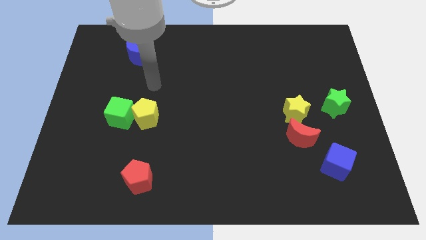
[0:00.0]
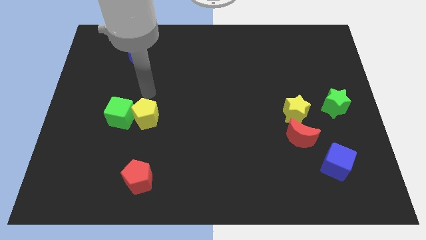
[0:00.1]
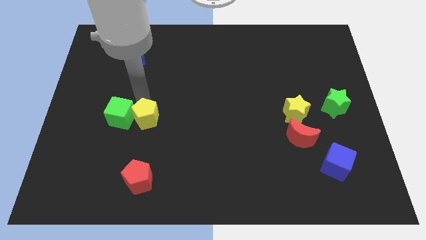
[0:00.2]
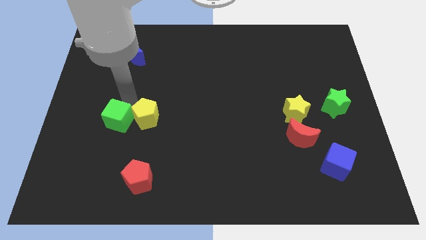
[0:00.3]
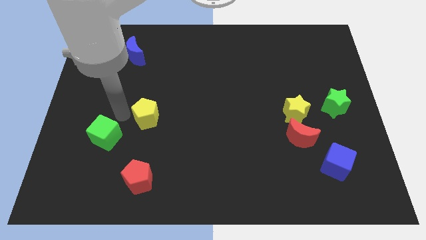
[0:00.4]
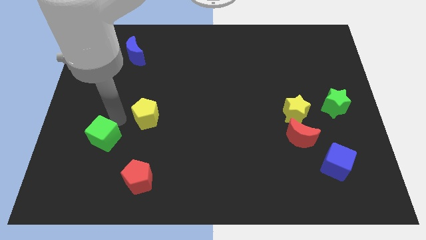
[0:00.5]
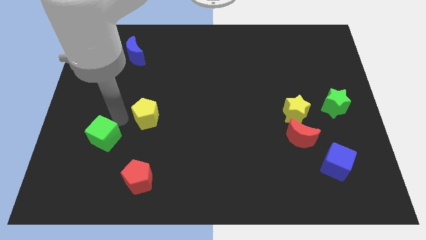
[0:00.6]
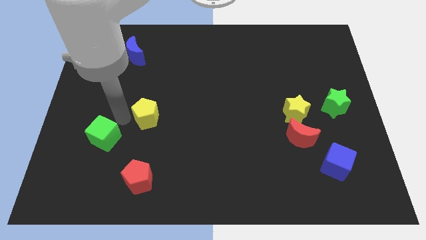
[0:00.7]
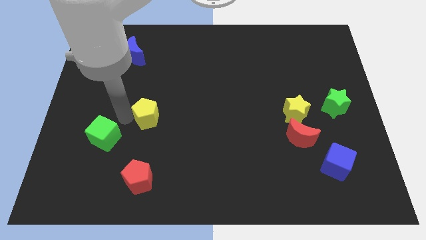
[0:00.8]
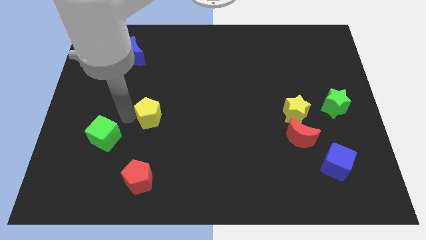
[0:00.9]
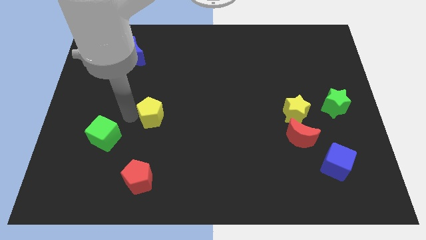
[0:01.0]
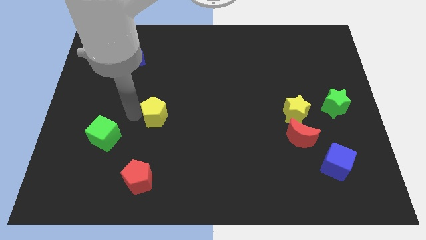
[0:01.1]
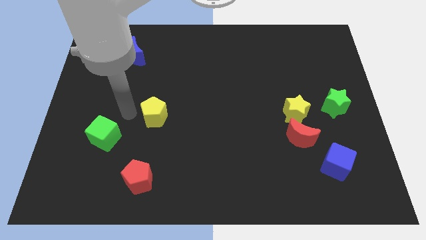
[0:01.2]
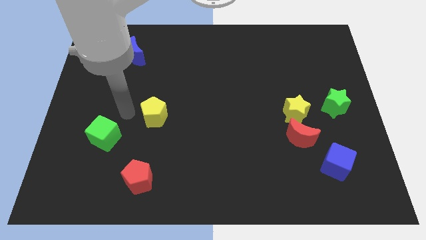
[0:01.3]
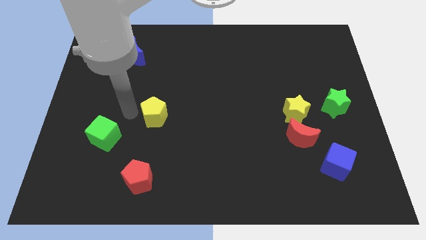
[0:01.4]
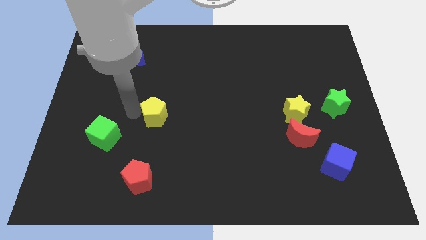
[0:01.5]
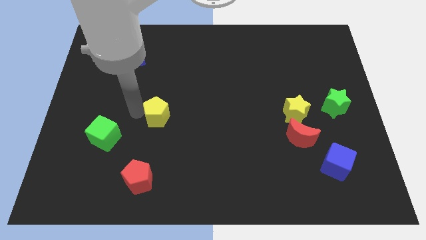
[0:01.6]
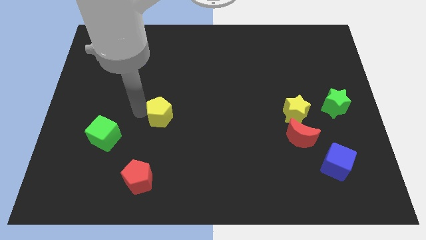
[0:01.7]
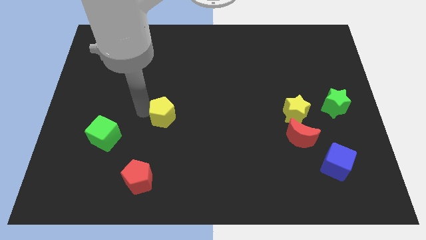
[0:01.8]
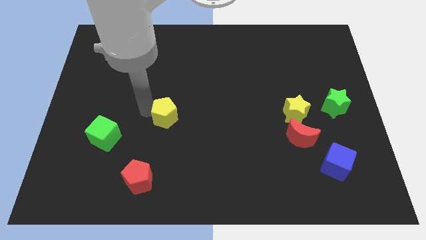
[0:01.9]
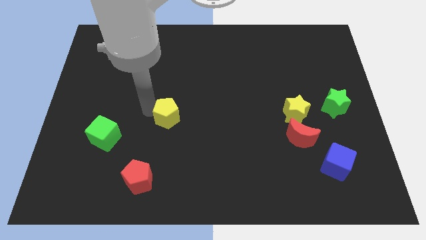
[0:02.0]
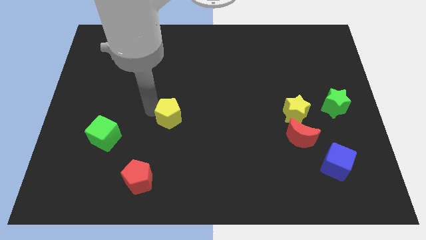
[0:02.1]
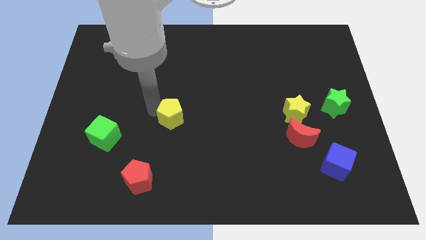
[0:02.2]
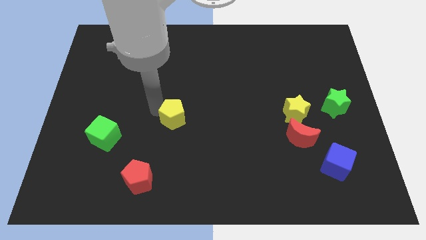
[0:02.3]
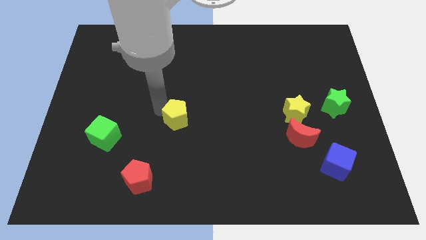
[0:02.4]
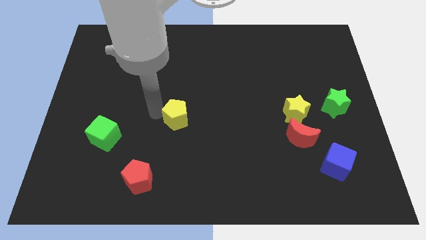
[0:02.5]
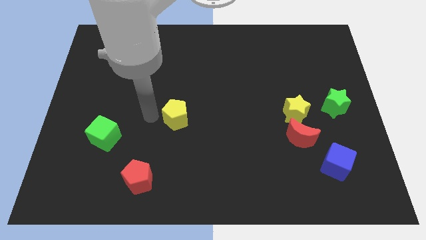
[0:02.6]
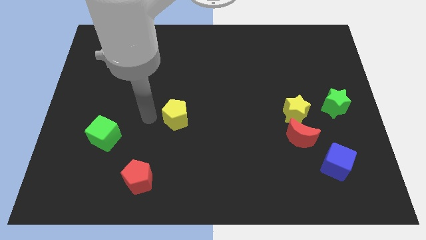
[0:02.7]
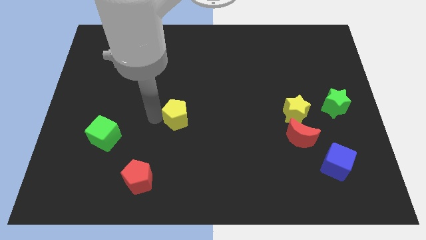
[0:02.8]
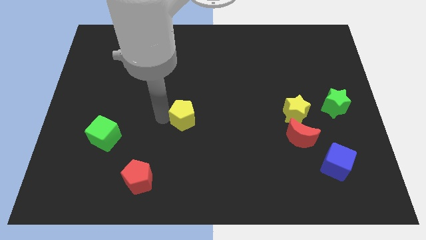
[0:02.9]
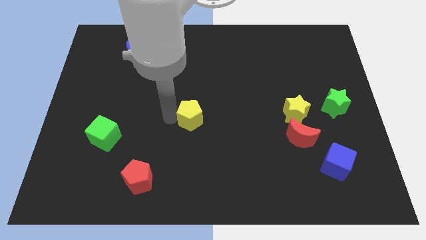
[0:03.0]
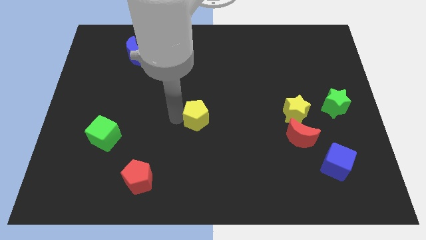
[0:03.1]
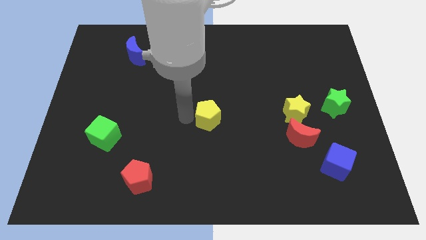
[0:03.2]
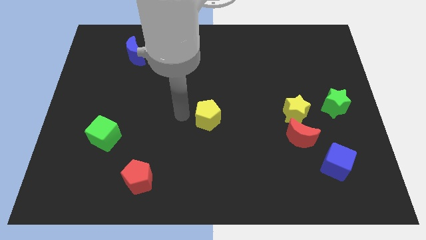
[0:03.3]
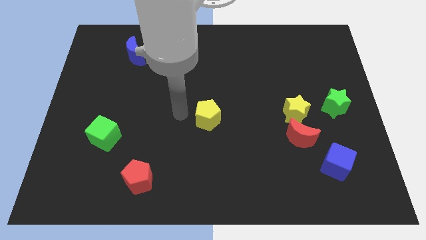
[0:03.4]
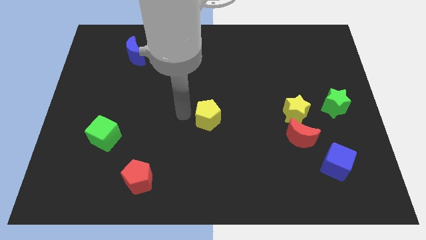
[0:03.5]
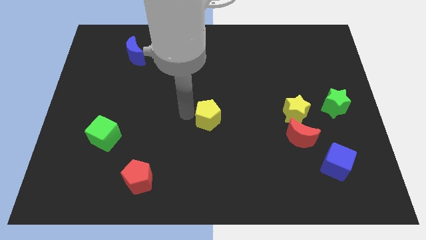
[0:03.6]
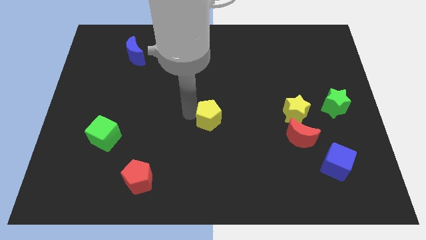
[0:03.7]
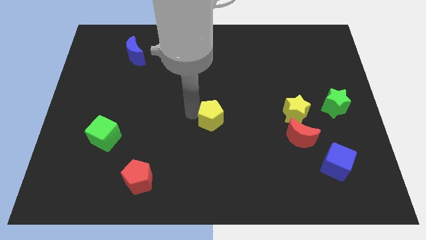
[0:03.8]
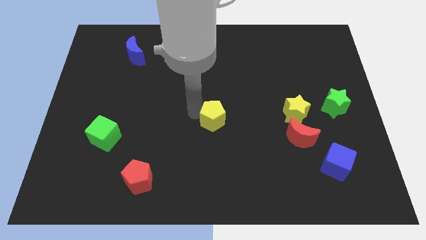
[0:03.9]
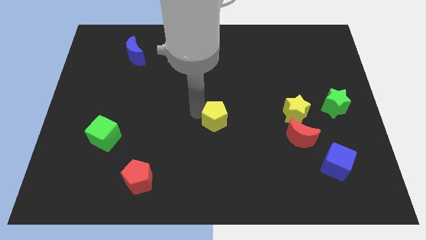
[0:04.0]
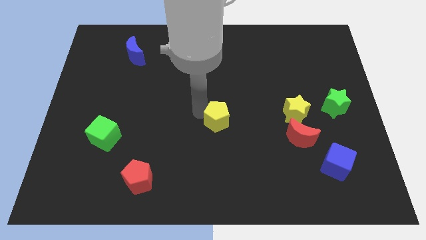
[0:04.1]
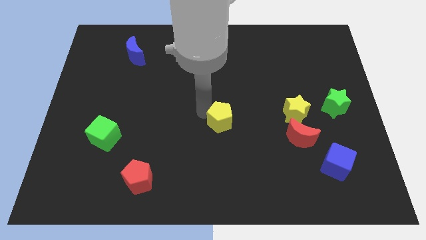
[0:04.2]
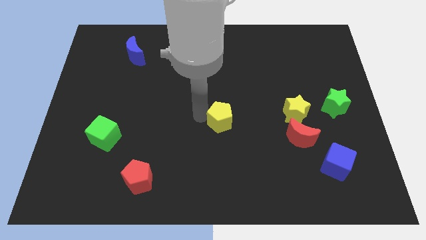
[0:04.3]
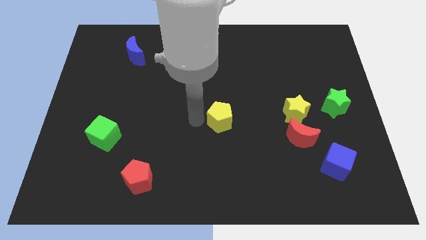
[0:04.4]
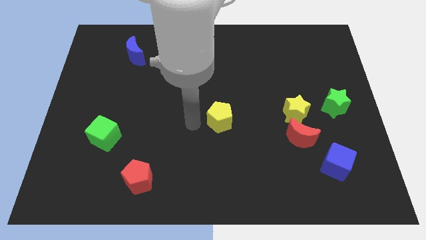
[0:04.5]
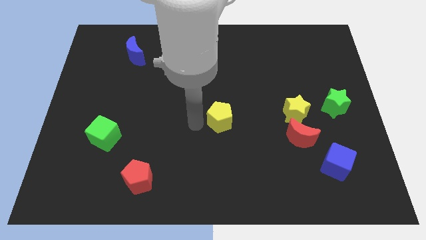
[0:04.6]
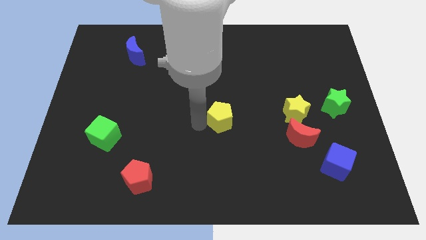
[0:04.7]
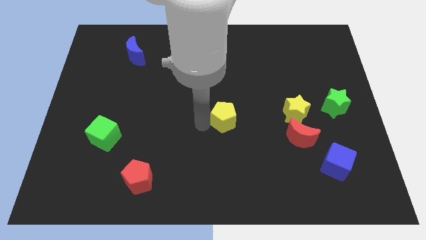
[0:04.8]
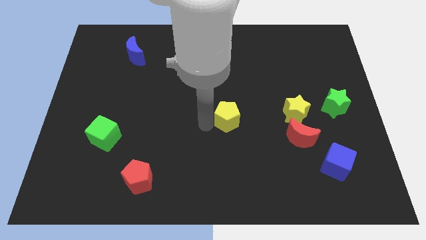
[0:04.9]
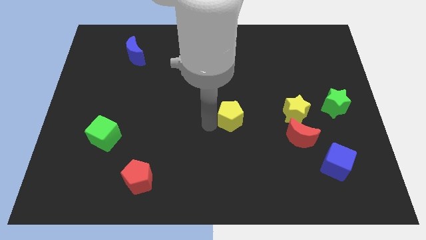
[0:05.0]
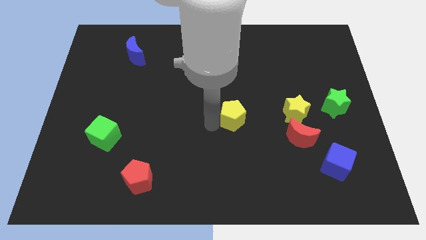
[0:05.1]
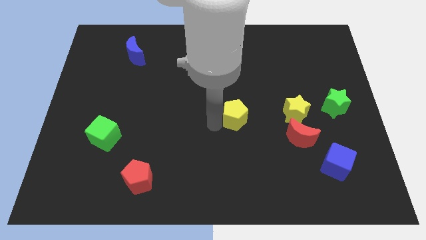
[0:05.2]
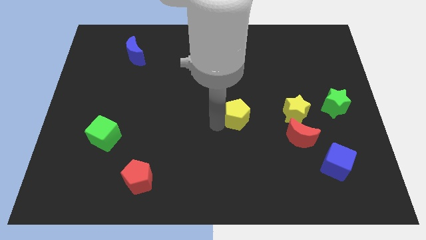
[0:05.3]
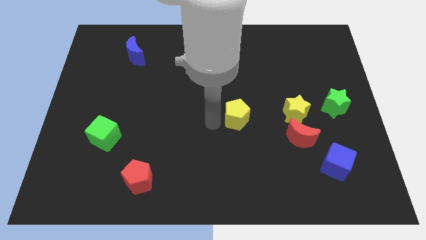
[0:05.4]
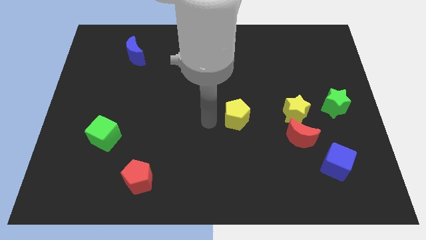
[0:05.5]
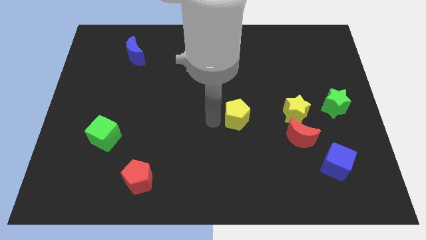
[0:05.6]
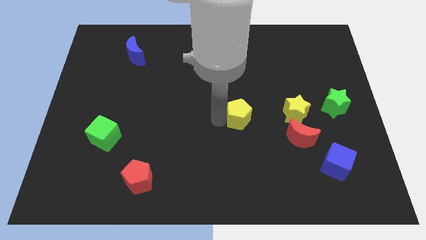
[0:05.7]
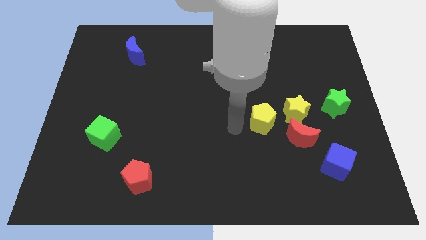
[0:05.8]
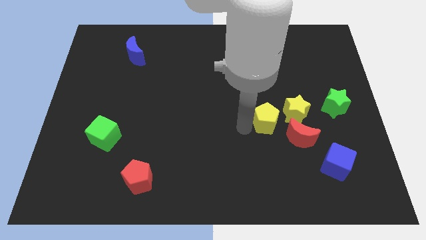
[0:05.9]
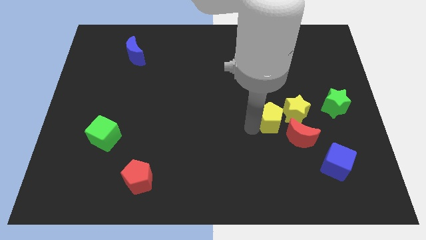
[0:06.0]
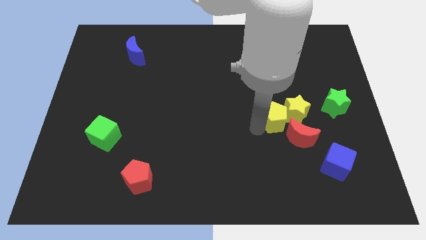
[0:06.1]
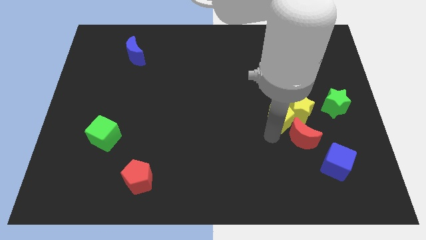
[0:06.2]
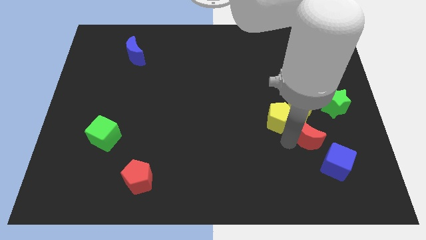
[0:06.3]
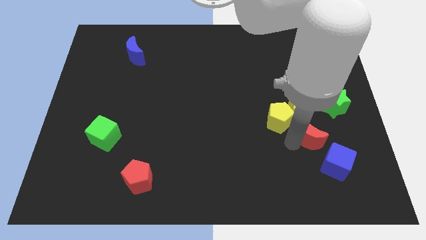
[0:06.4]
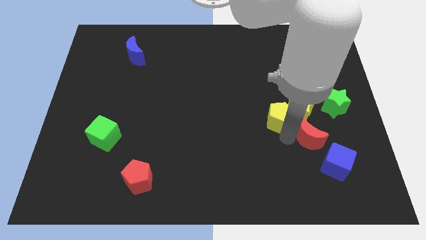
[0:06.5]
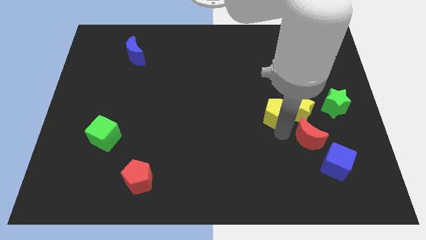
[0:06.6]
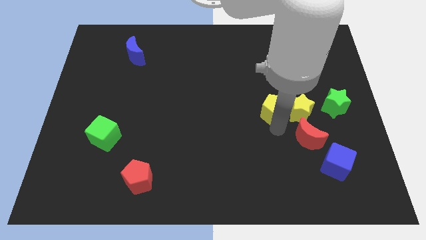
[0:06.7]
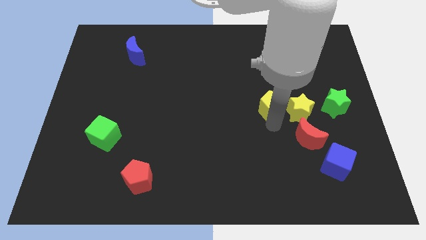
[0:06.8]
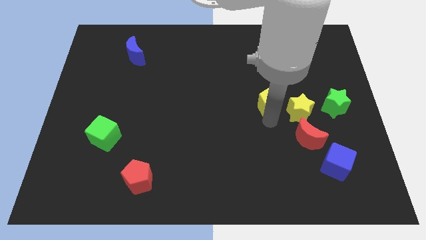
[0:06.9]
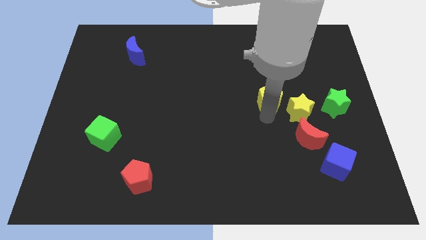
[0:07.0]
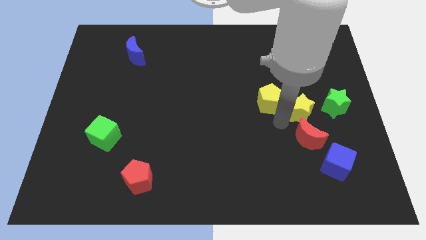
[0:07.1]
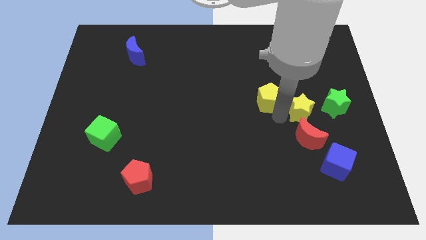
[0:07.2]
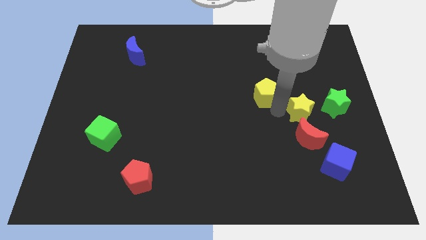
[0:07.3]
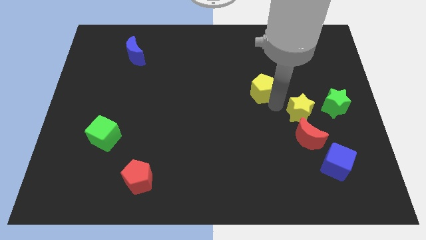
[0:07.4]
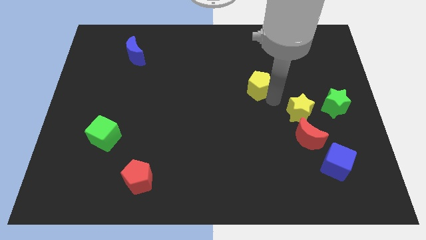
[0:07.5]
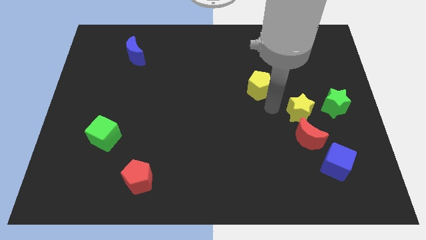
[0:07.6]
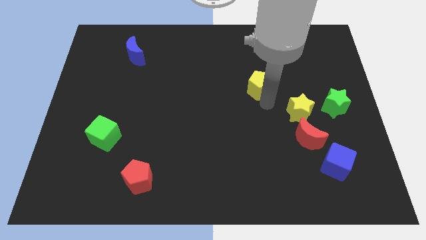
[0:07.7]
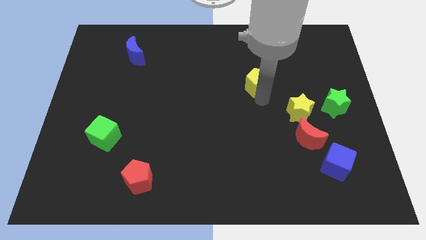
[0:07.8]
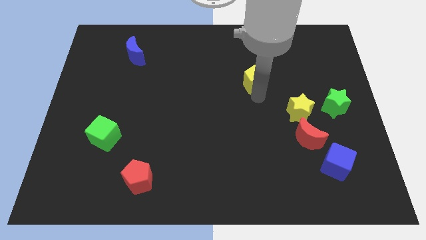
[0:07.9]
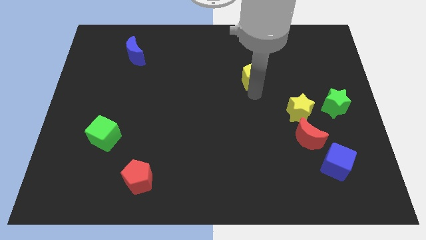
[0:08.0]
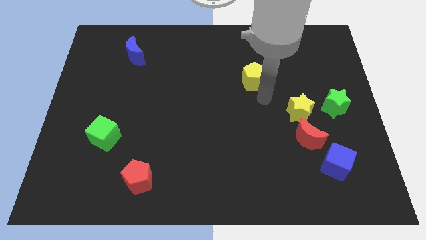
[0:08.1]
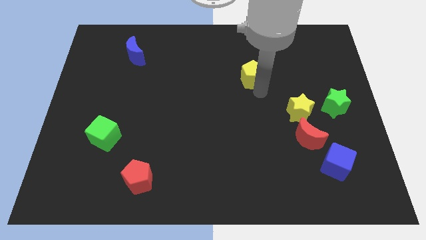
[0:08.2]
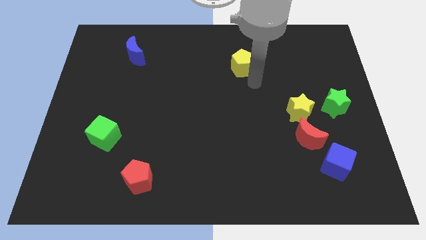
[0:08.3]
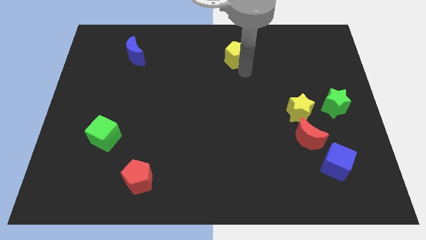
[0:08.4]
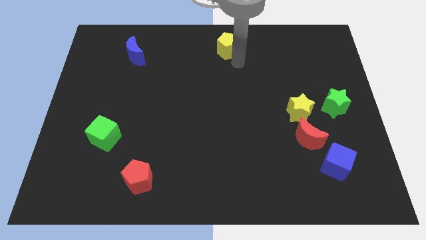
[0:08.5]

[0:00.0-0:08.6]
push the yellow pentagon to the top side
